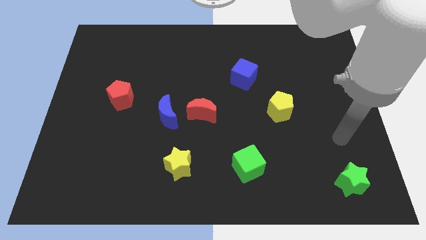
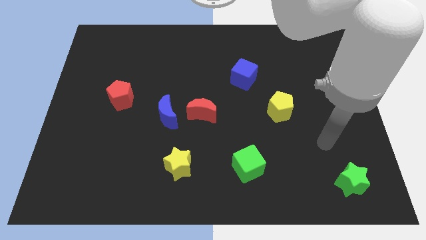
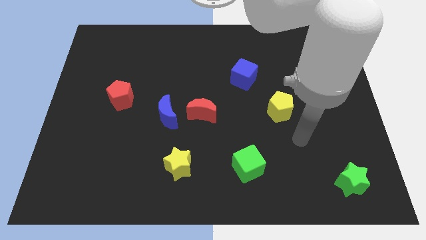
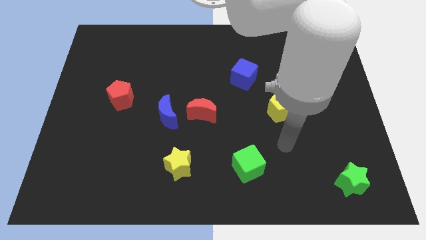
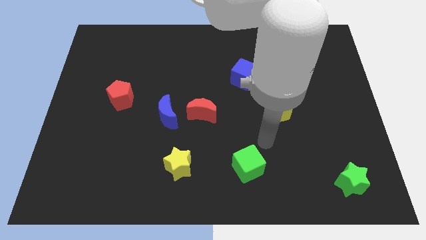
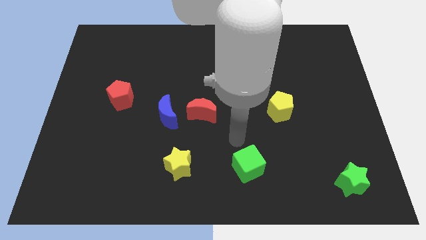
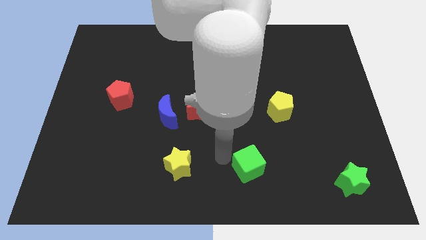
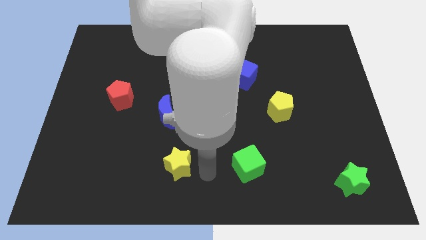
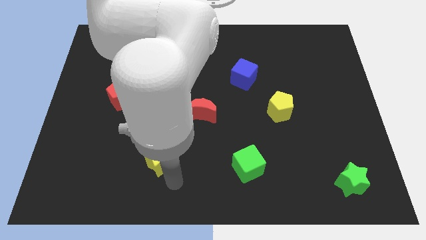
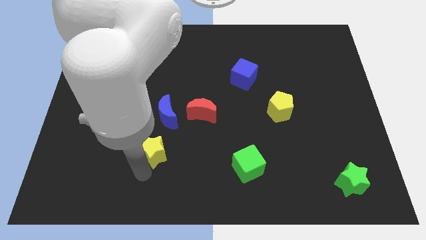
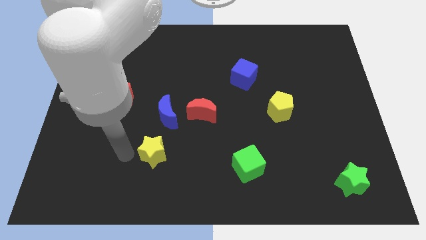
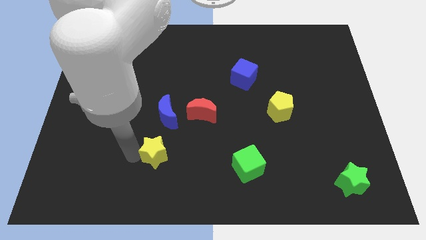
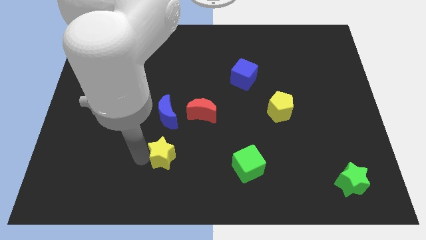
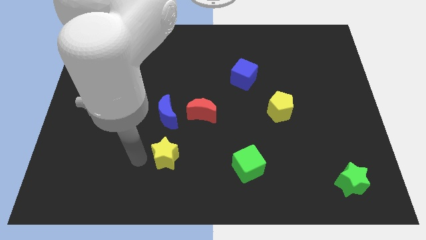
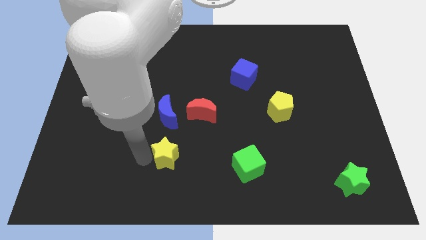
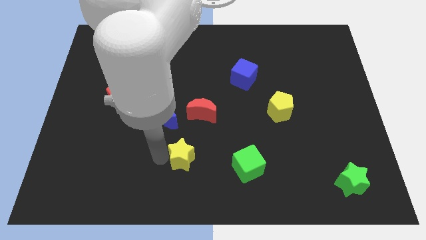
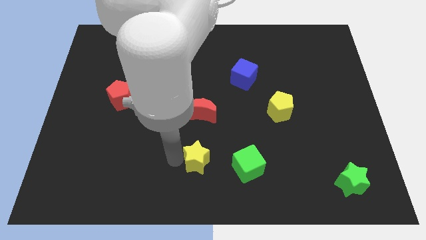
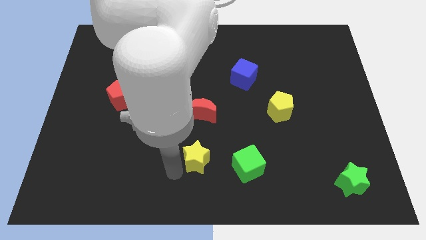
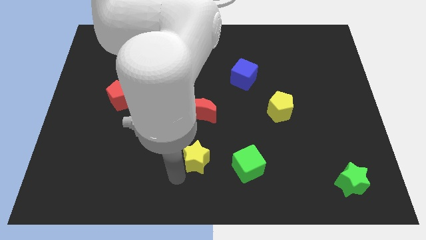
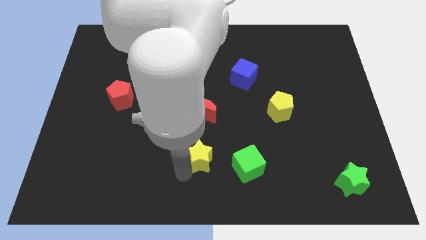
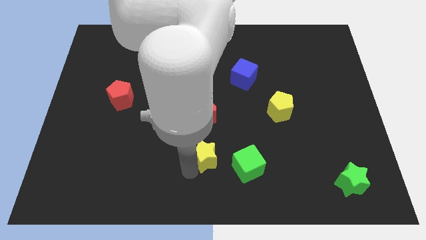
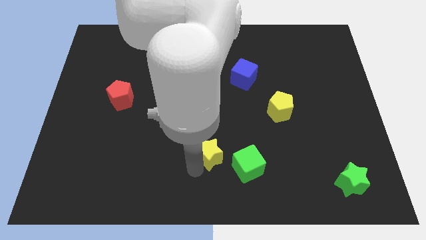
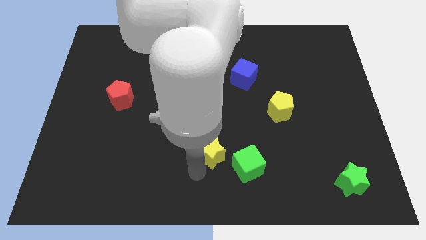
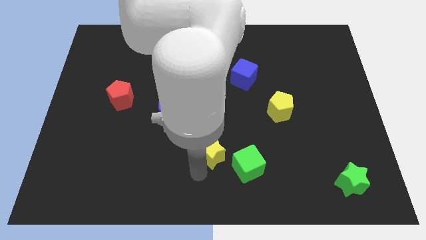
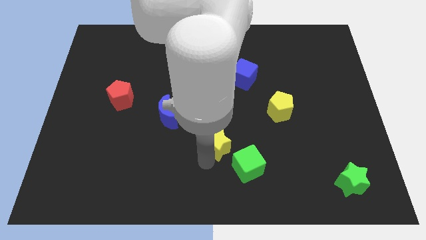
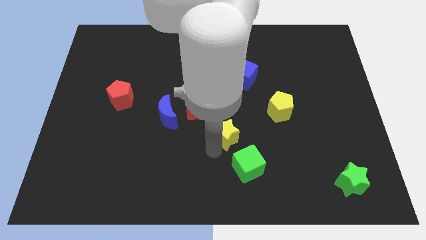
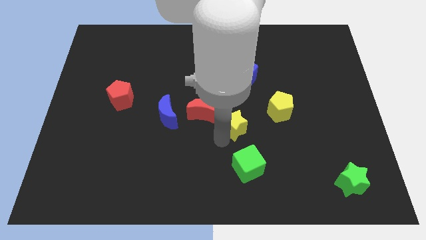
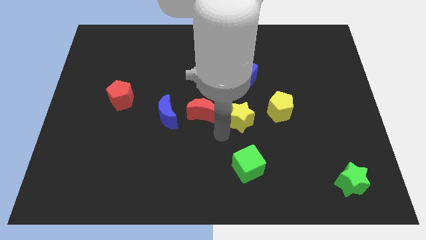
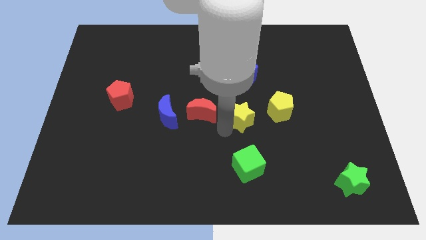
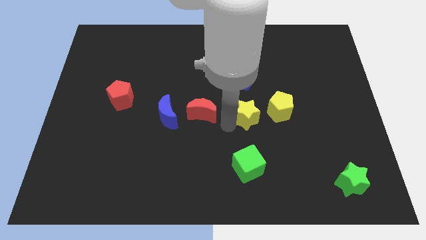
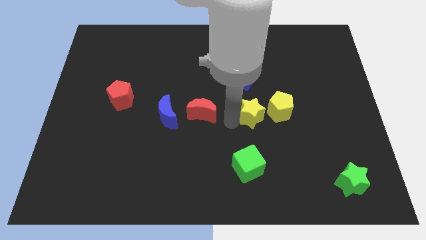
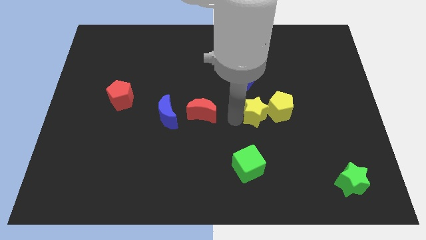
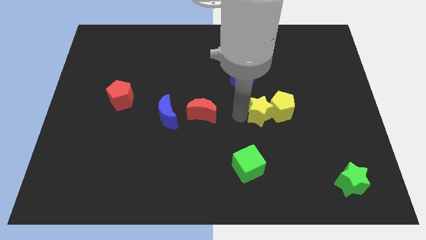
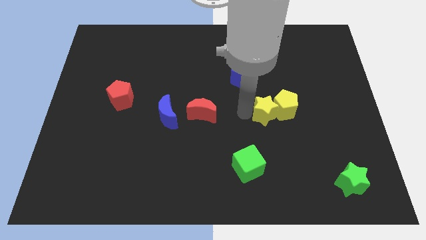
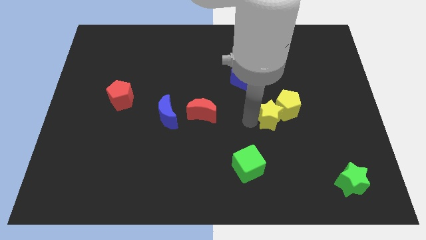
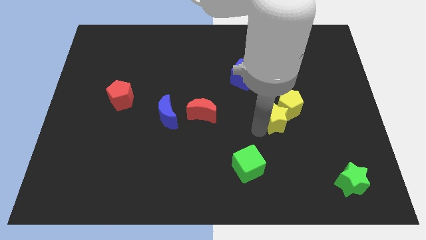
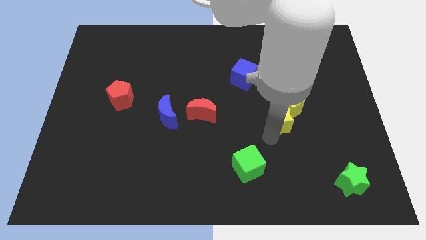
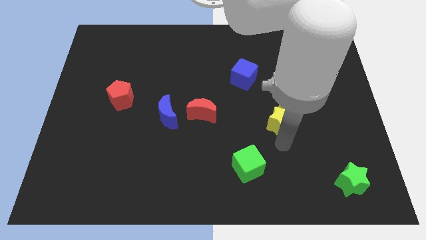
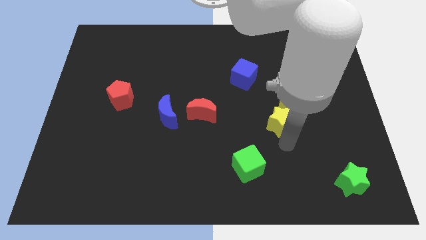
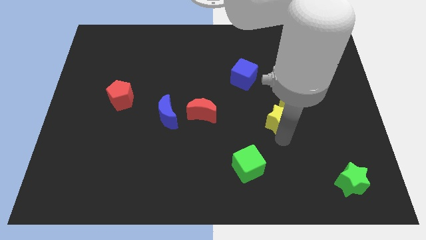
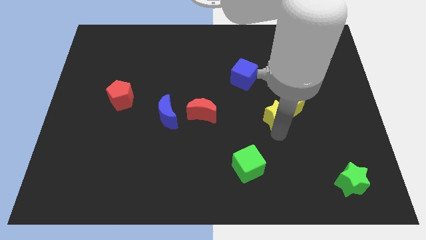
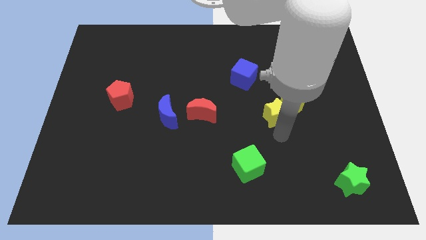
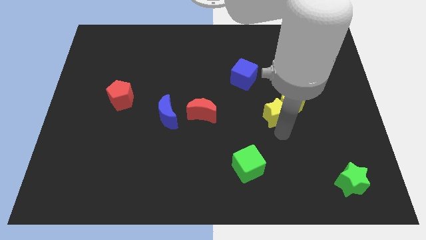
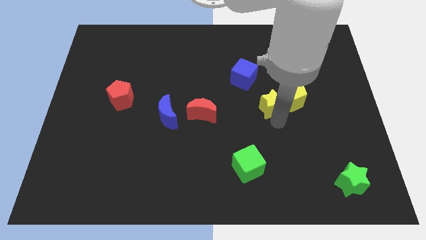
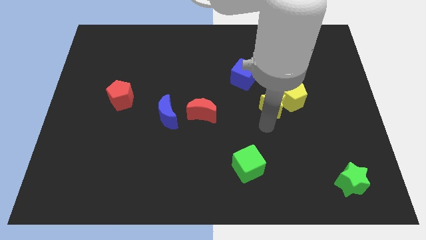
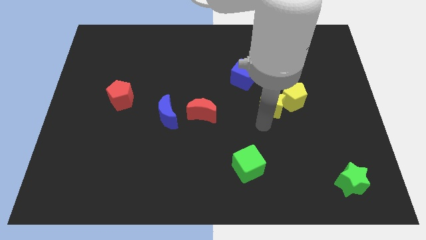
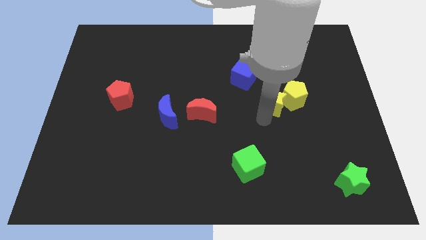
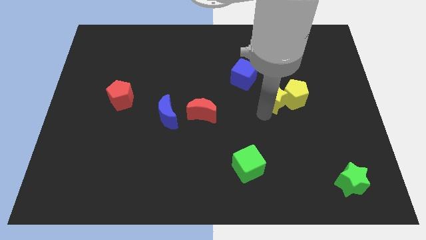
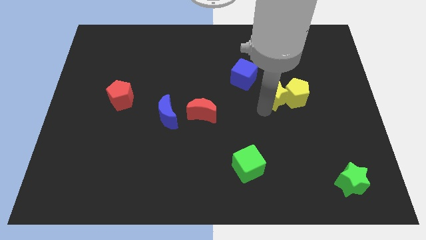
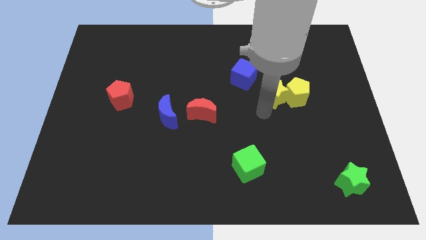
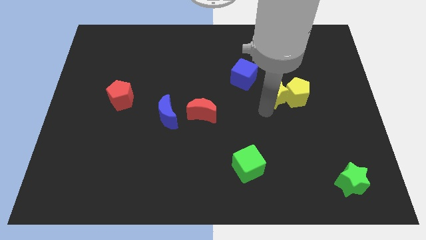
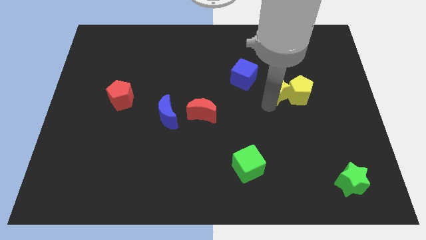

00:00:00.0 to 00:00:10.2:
put the yellow star to the right of the blue cube

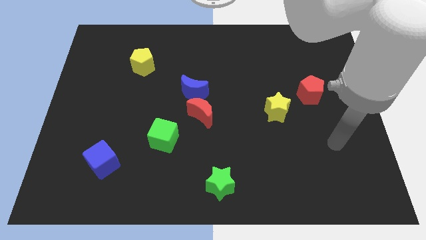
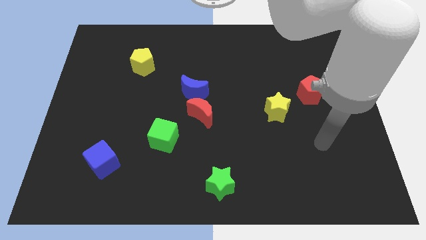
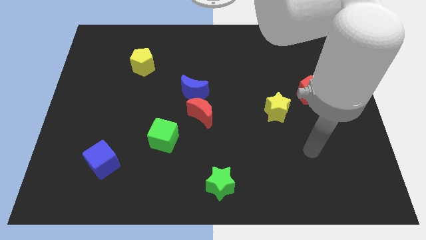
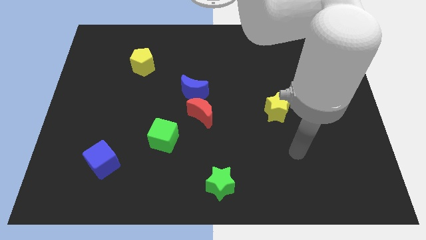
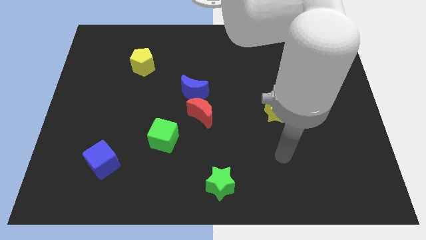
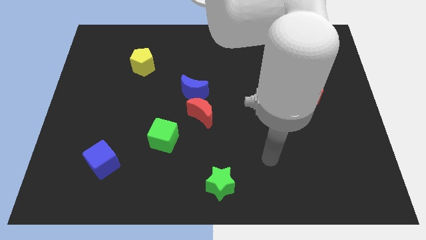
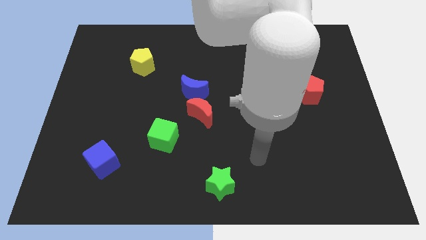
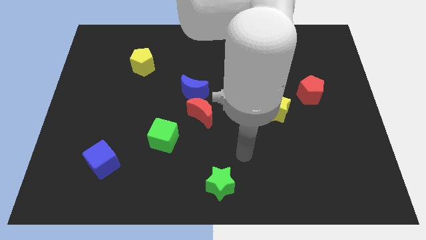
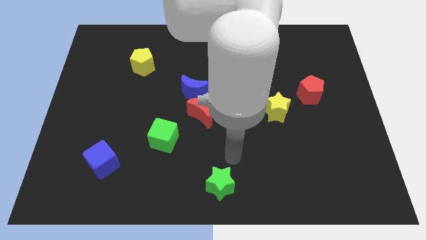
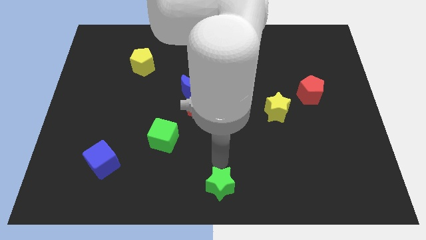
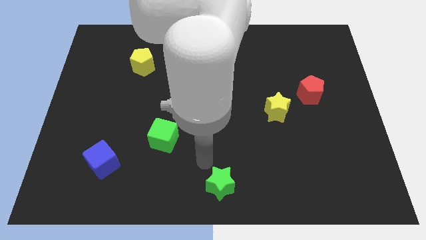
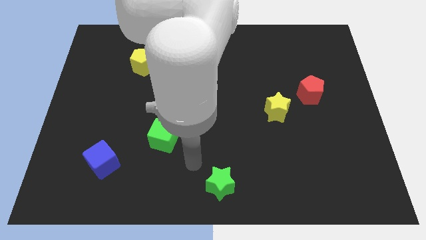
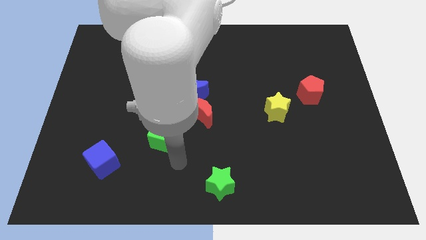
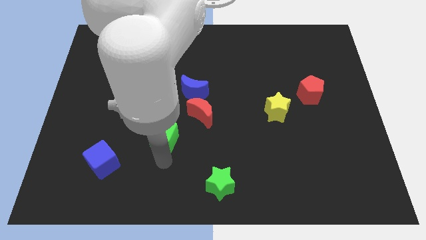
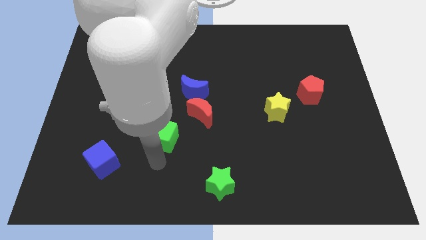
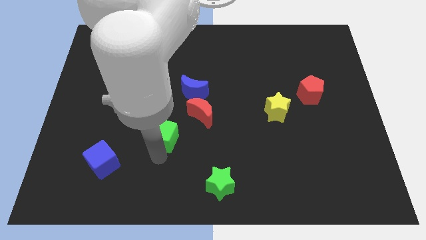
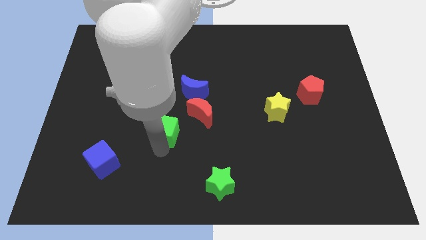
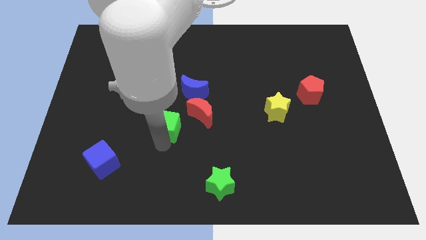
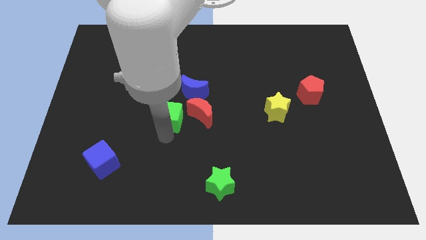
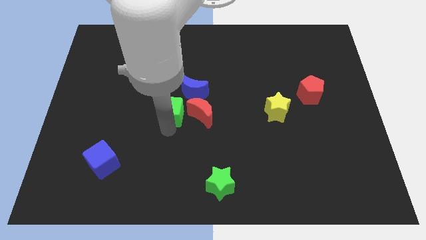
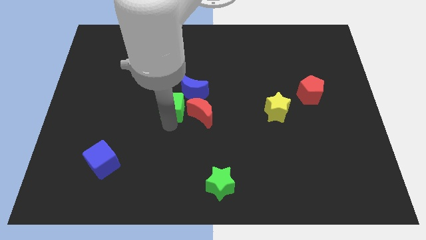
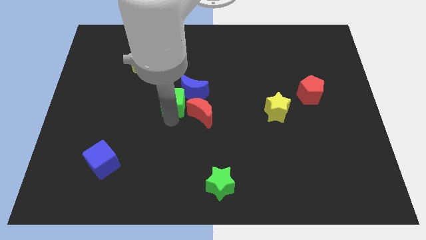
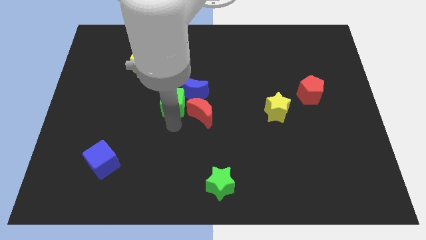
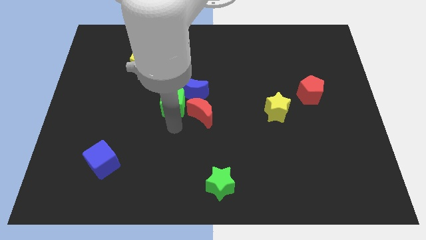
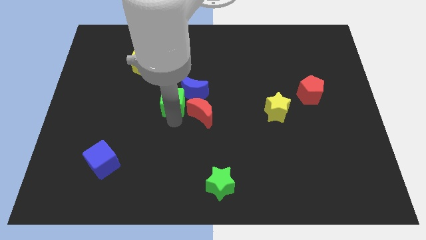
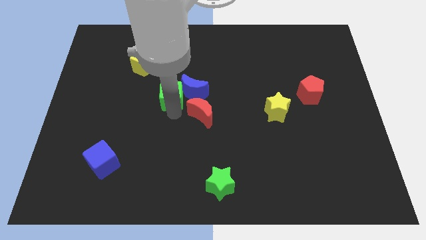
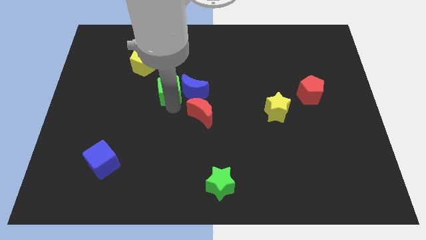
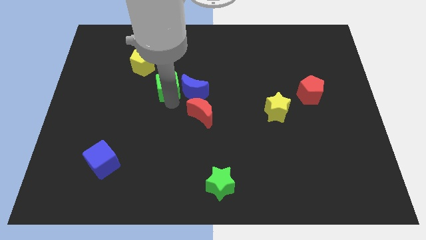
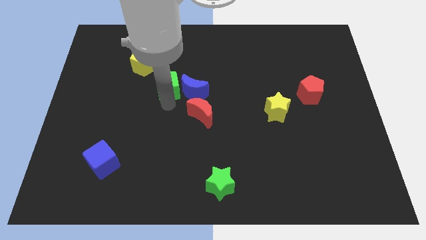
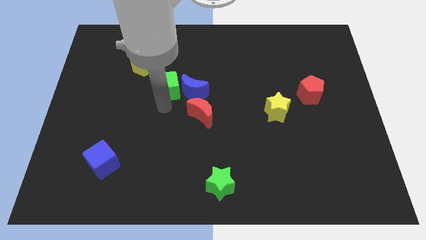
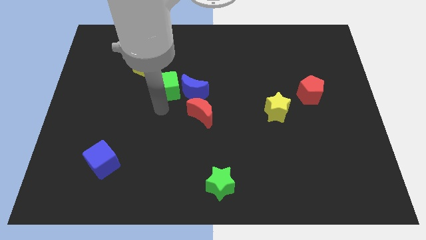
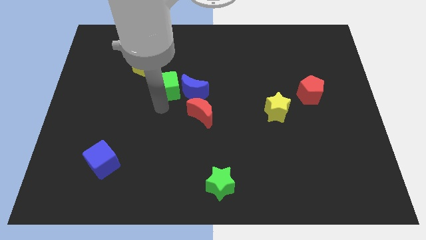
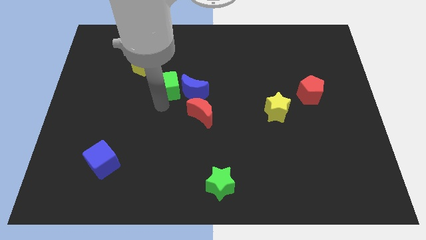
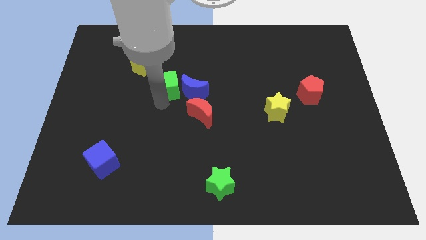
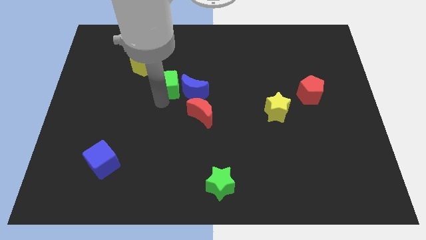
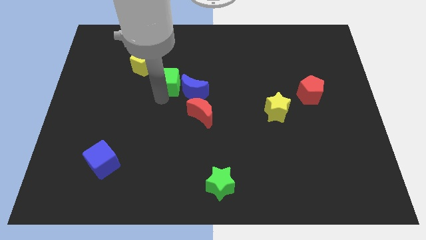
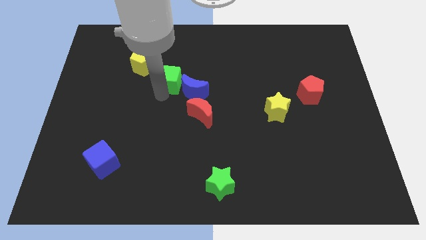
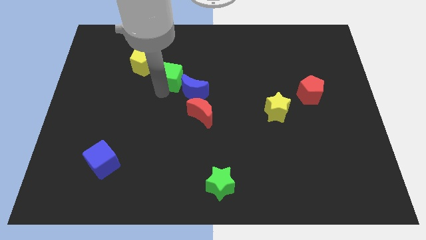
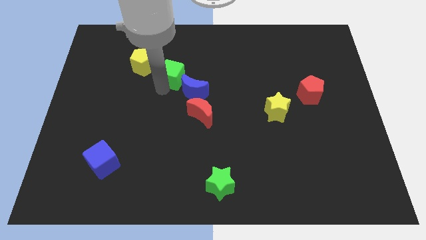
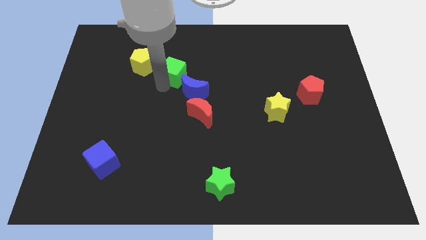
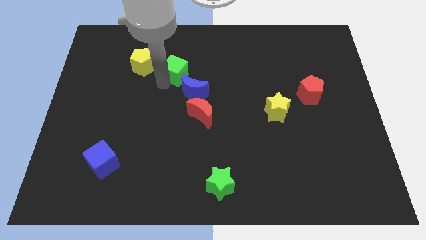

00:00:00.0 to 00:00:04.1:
push the green cube to the top side of the blue moon
